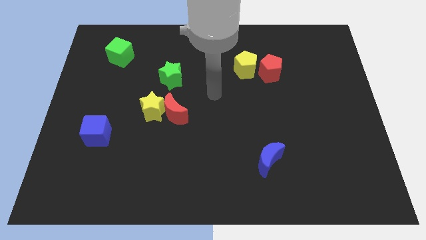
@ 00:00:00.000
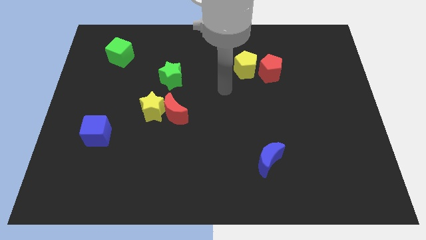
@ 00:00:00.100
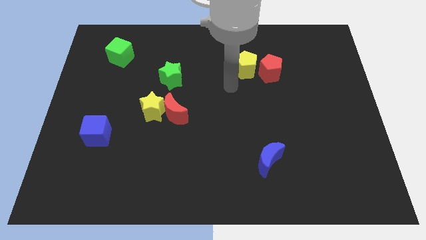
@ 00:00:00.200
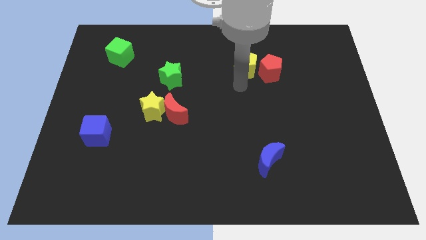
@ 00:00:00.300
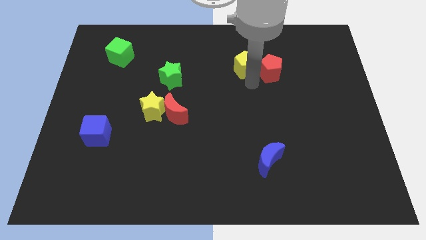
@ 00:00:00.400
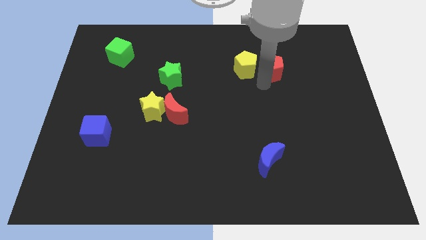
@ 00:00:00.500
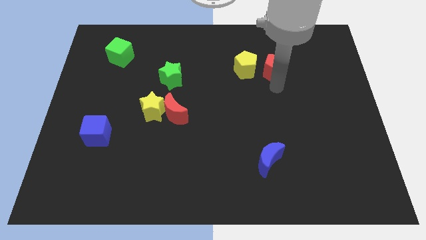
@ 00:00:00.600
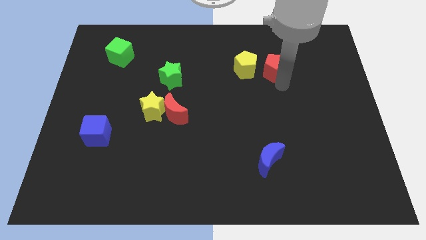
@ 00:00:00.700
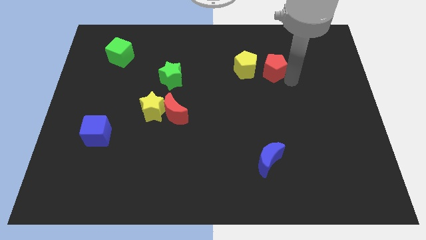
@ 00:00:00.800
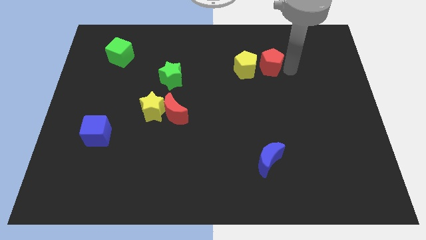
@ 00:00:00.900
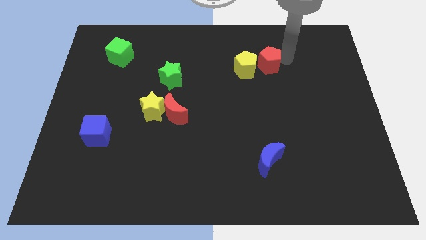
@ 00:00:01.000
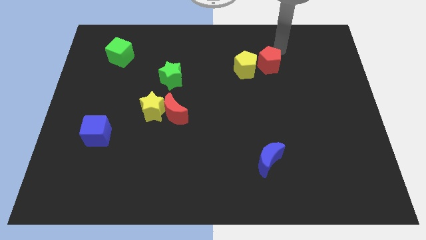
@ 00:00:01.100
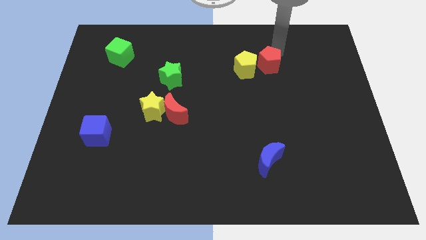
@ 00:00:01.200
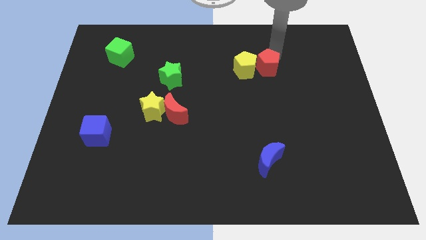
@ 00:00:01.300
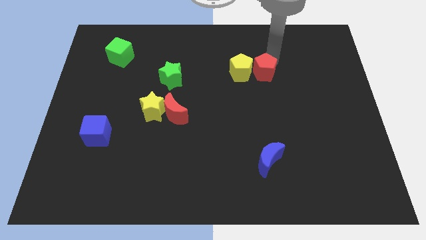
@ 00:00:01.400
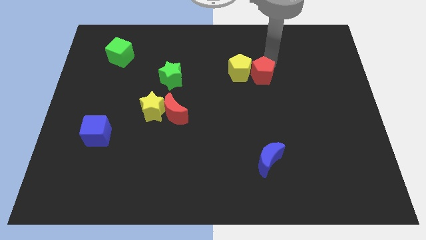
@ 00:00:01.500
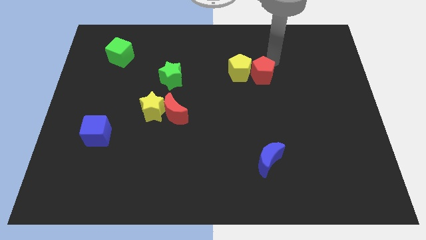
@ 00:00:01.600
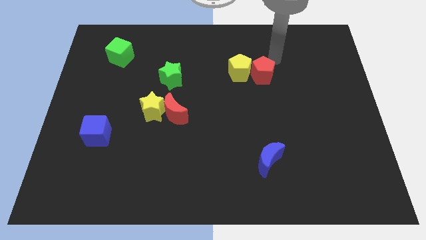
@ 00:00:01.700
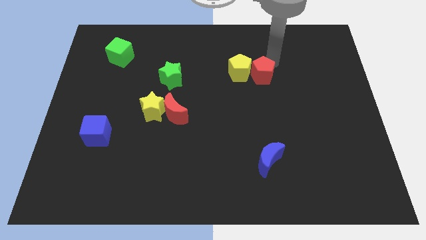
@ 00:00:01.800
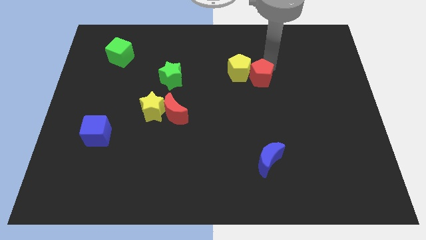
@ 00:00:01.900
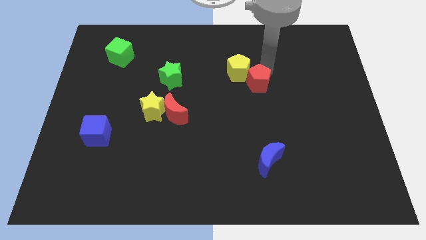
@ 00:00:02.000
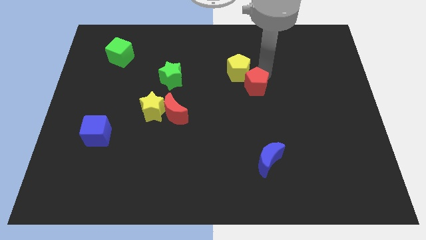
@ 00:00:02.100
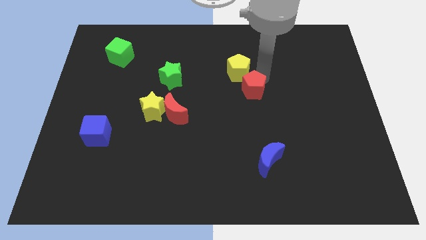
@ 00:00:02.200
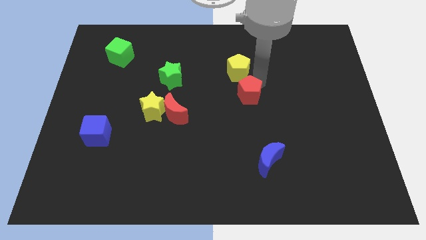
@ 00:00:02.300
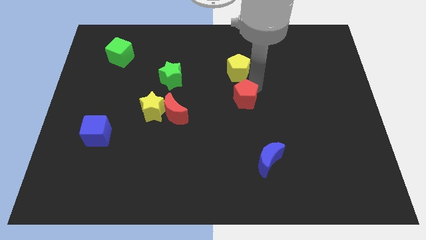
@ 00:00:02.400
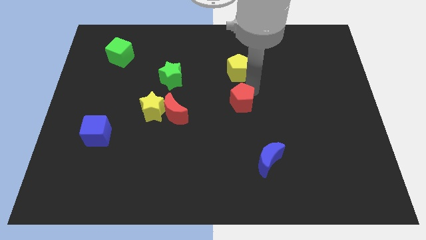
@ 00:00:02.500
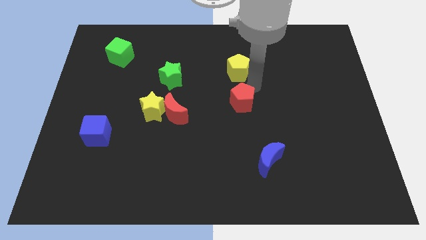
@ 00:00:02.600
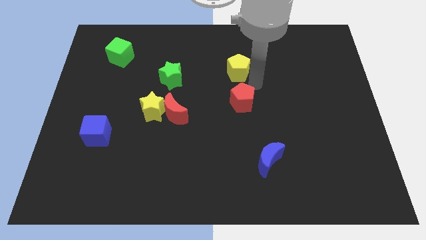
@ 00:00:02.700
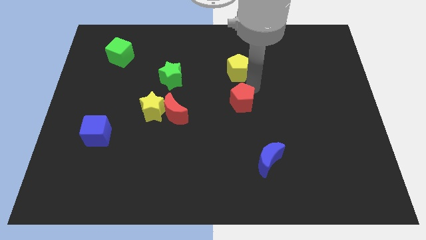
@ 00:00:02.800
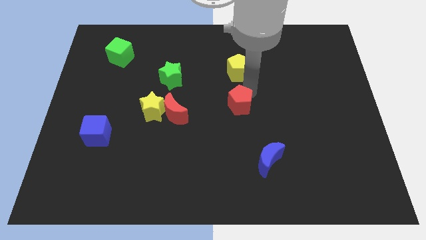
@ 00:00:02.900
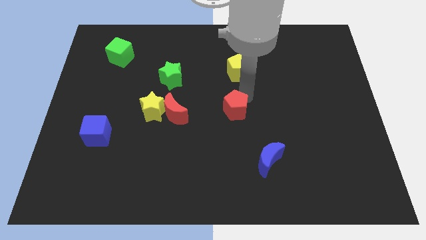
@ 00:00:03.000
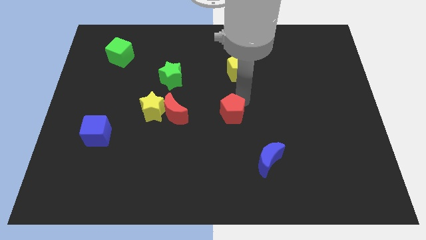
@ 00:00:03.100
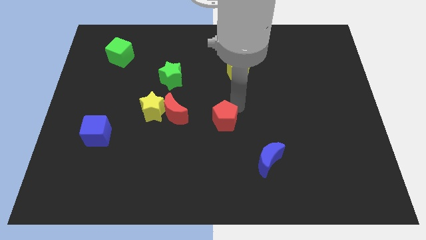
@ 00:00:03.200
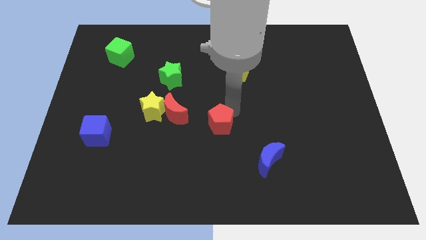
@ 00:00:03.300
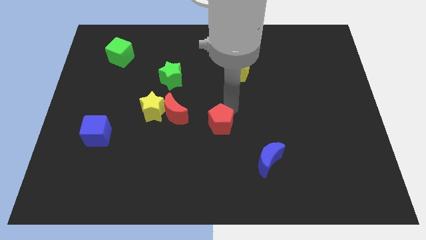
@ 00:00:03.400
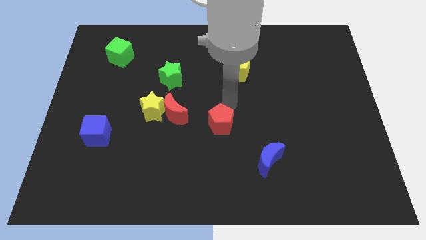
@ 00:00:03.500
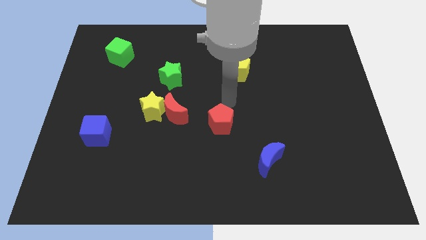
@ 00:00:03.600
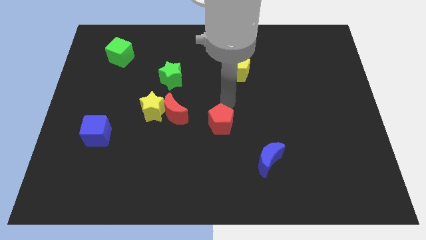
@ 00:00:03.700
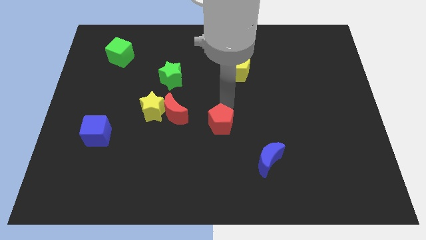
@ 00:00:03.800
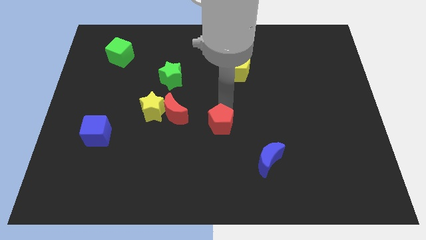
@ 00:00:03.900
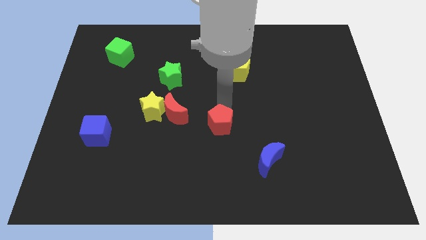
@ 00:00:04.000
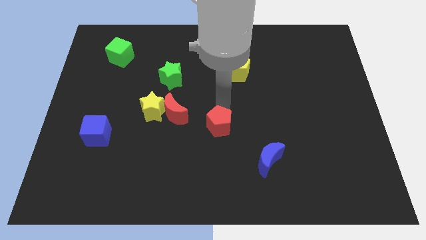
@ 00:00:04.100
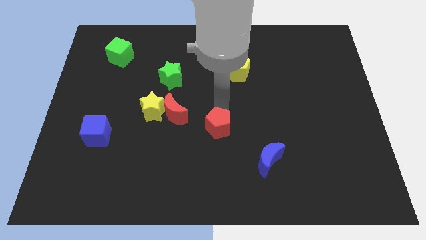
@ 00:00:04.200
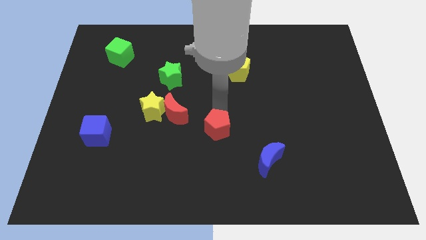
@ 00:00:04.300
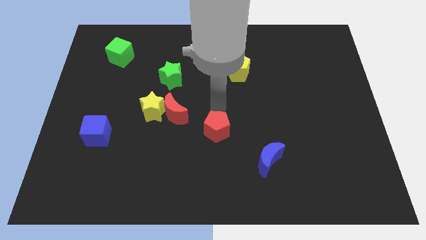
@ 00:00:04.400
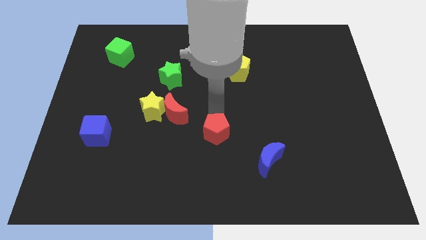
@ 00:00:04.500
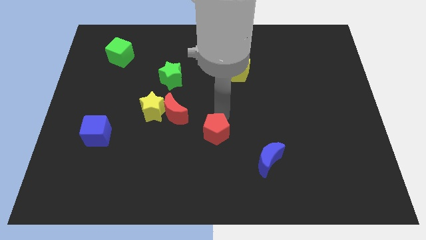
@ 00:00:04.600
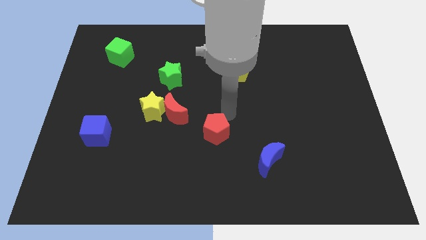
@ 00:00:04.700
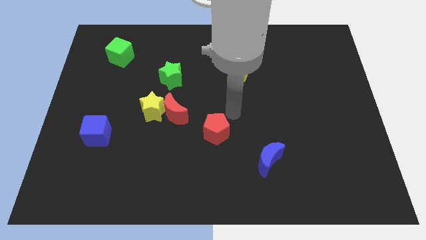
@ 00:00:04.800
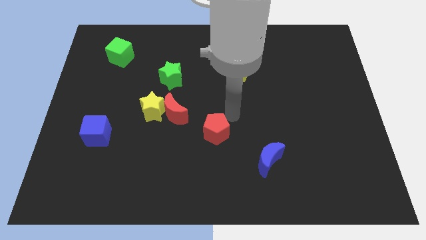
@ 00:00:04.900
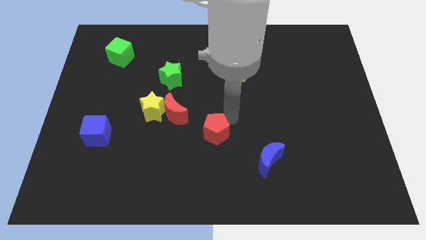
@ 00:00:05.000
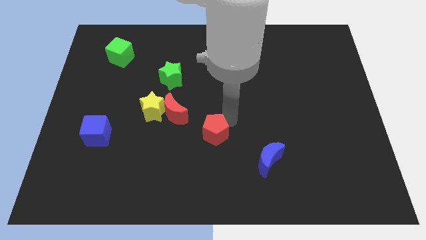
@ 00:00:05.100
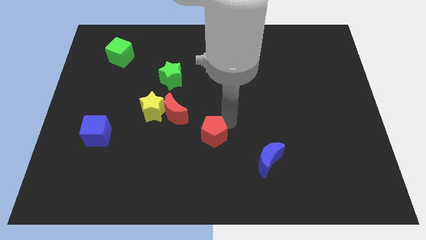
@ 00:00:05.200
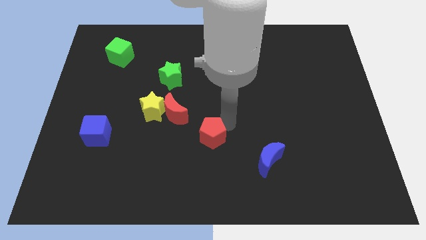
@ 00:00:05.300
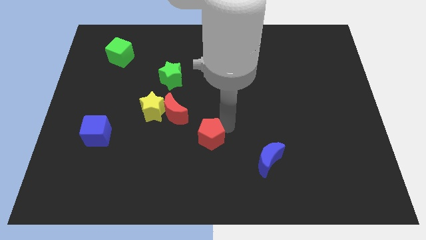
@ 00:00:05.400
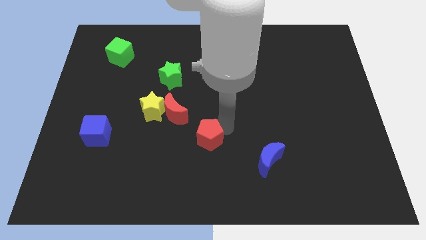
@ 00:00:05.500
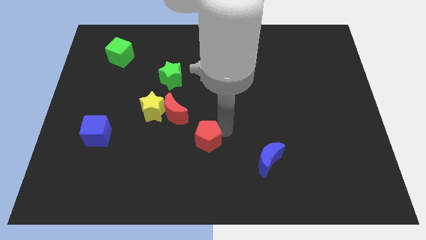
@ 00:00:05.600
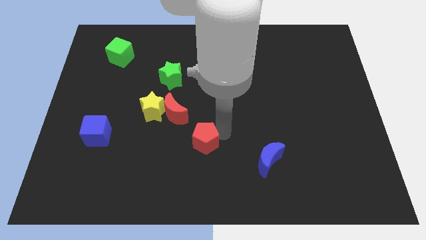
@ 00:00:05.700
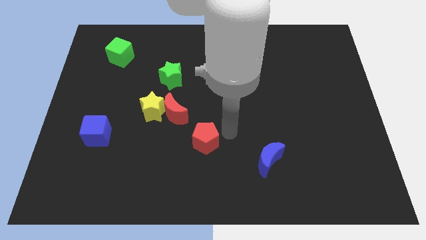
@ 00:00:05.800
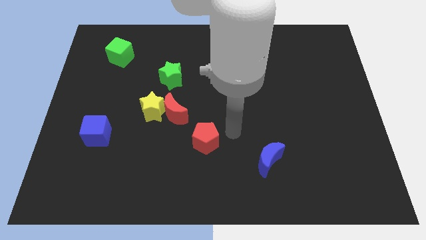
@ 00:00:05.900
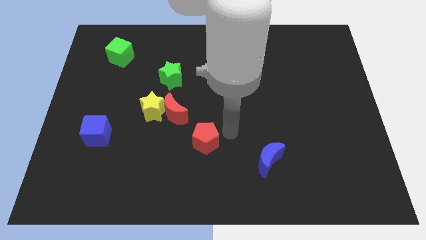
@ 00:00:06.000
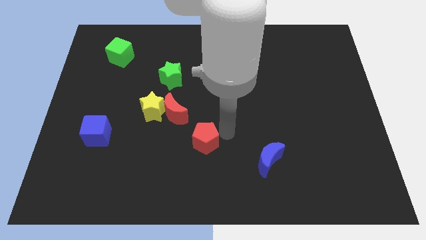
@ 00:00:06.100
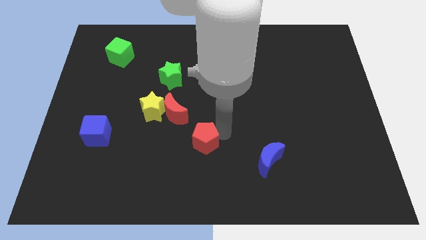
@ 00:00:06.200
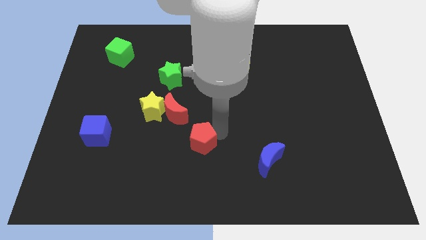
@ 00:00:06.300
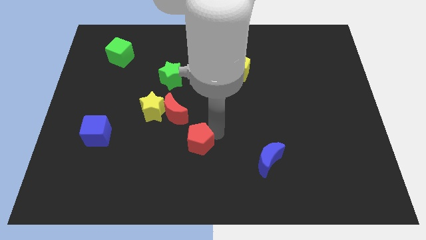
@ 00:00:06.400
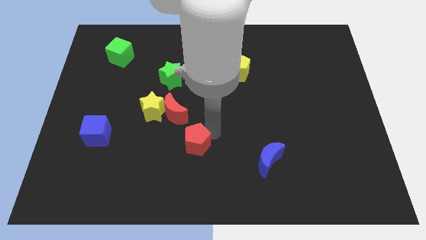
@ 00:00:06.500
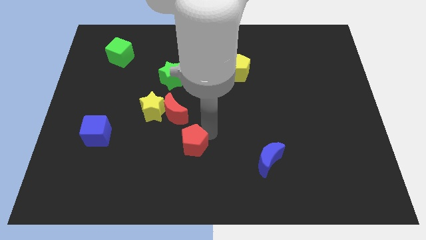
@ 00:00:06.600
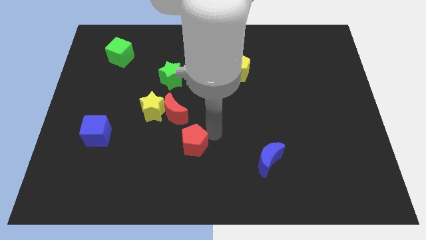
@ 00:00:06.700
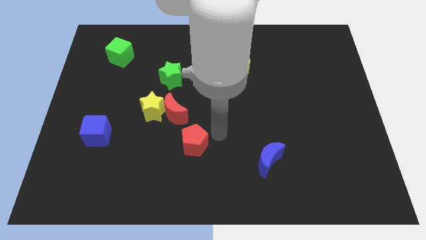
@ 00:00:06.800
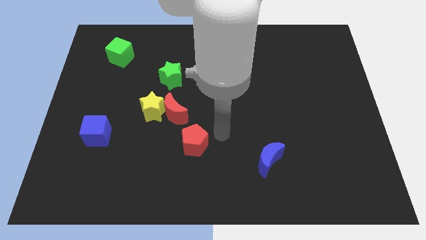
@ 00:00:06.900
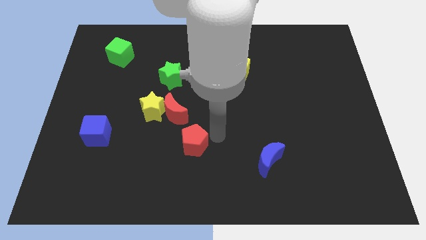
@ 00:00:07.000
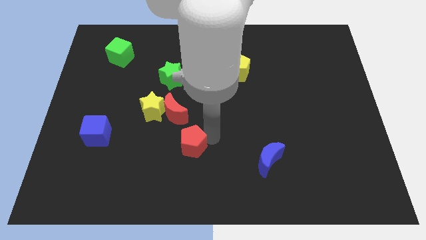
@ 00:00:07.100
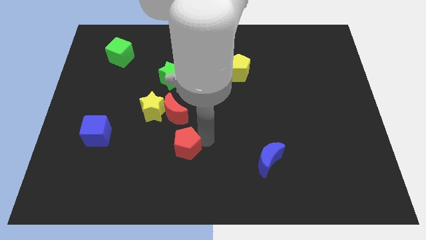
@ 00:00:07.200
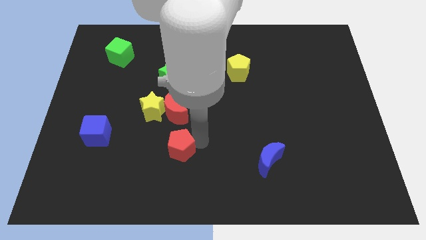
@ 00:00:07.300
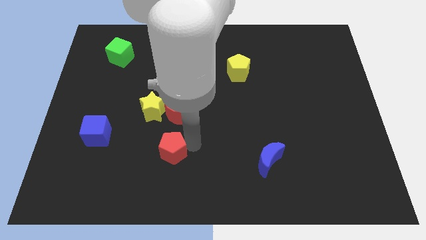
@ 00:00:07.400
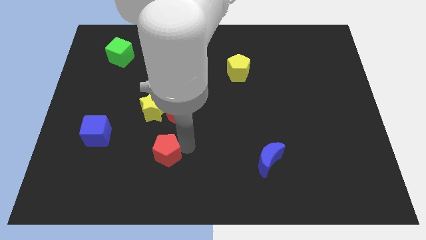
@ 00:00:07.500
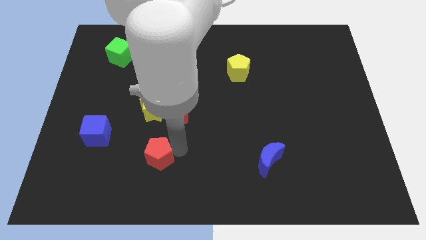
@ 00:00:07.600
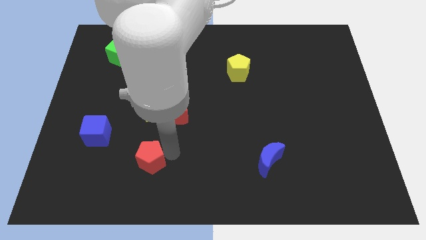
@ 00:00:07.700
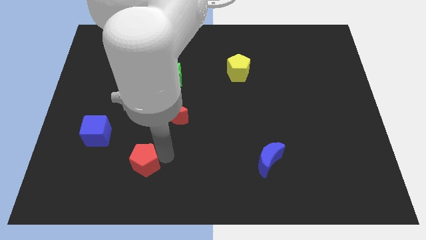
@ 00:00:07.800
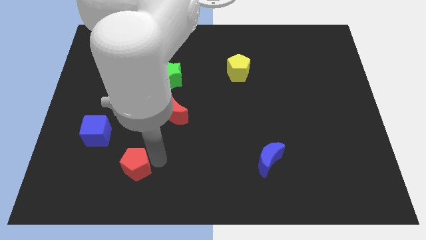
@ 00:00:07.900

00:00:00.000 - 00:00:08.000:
move the red pentagon to the bottom right of the blue cube
